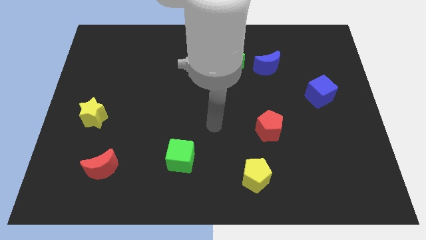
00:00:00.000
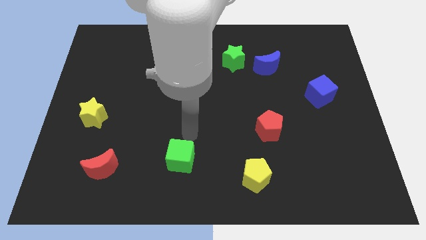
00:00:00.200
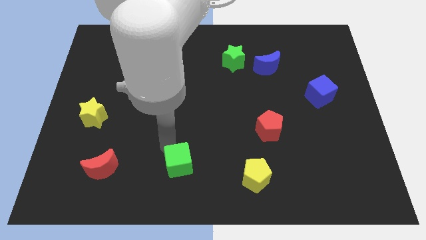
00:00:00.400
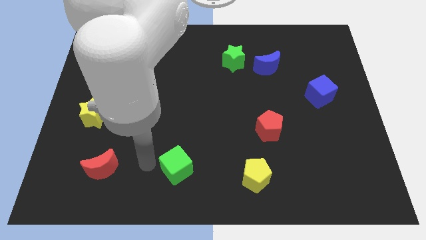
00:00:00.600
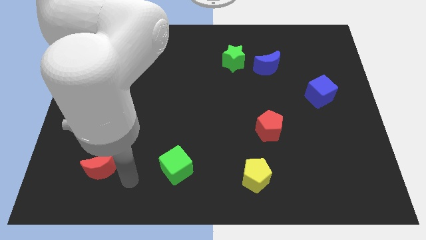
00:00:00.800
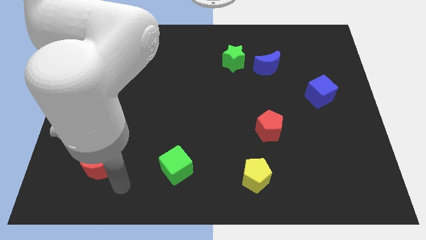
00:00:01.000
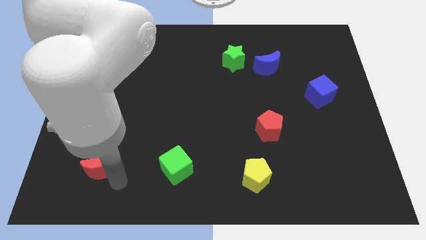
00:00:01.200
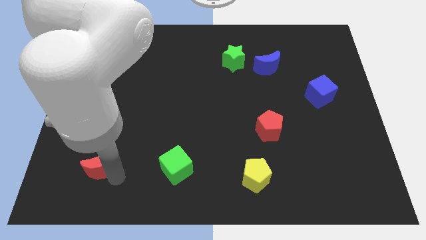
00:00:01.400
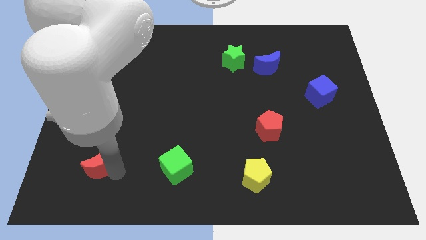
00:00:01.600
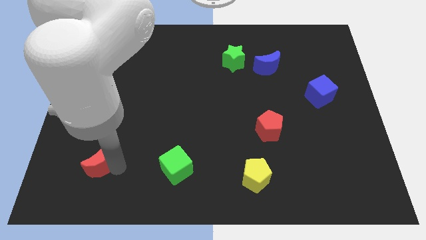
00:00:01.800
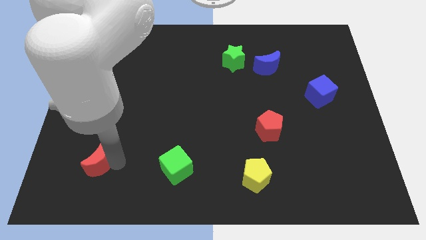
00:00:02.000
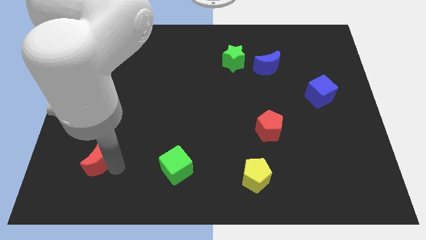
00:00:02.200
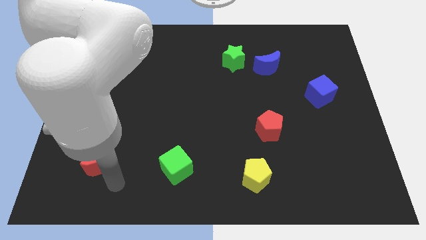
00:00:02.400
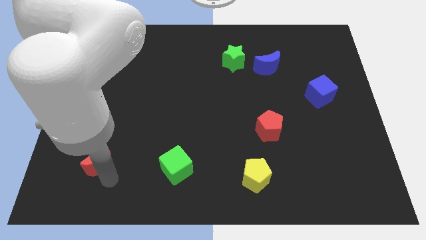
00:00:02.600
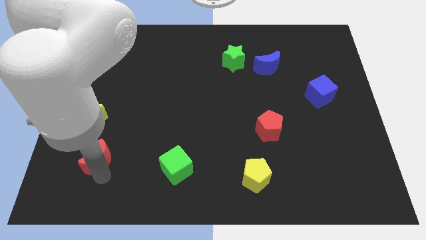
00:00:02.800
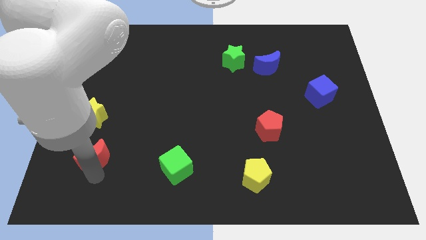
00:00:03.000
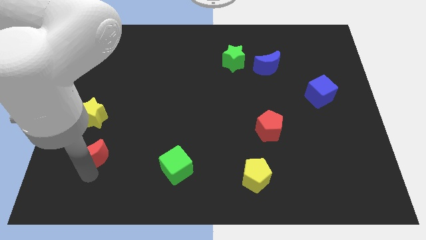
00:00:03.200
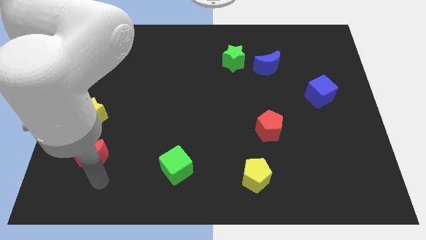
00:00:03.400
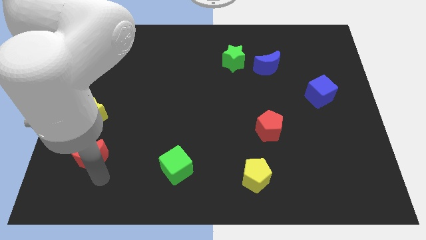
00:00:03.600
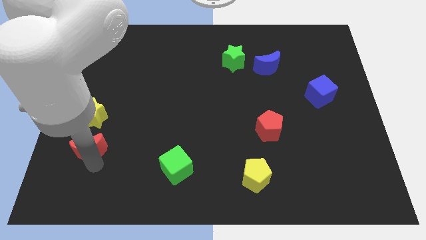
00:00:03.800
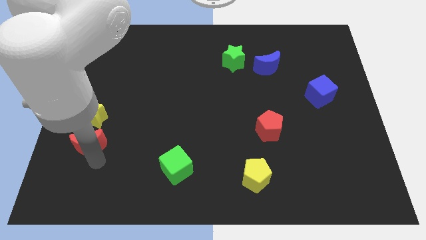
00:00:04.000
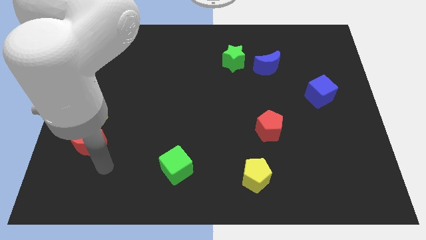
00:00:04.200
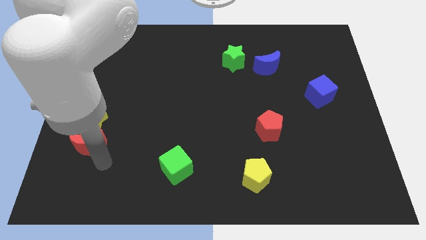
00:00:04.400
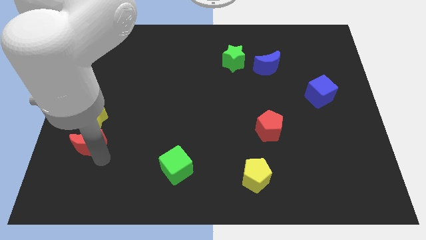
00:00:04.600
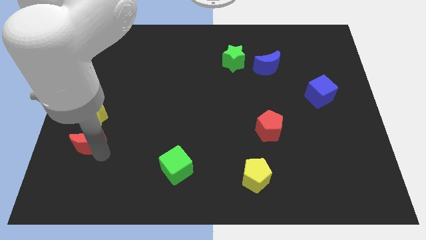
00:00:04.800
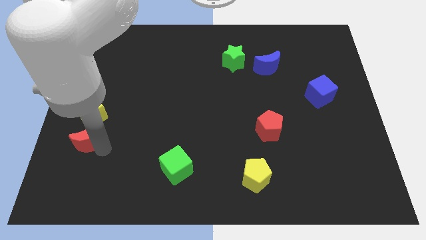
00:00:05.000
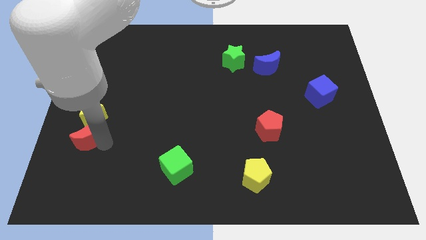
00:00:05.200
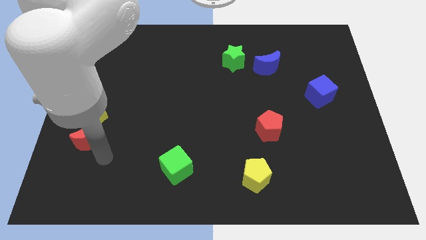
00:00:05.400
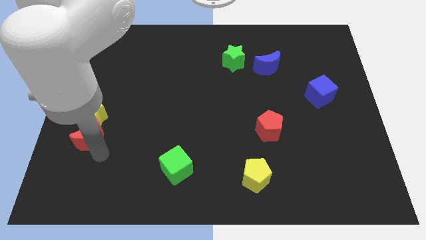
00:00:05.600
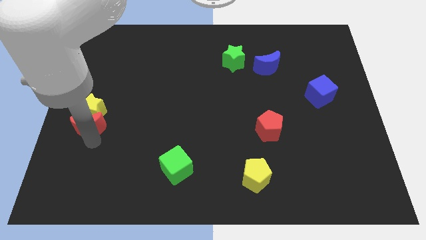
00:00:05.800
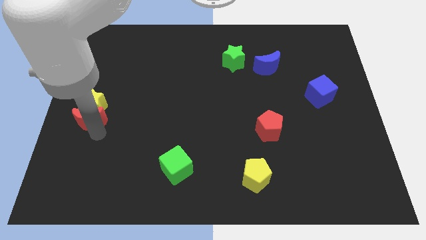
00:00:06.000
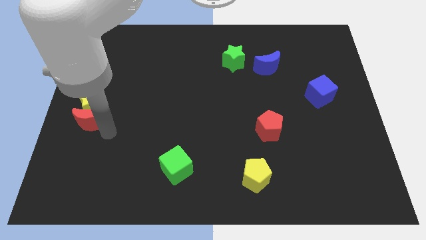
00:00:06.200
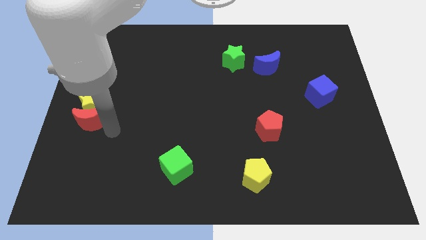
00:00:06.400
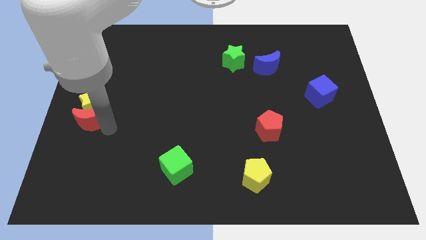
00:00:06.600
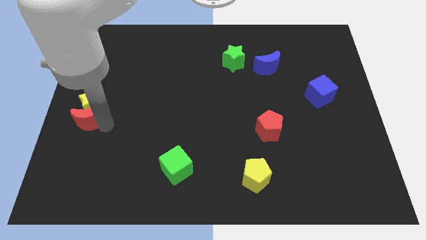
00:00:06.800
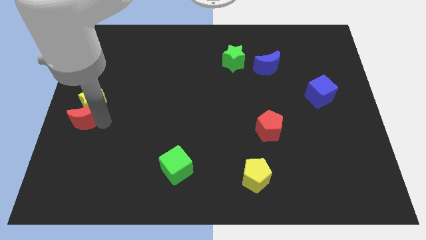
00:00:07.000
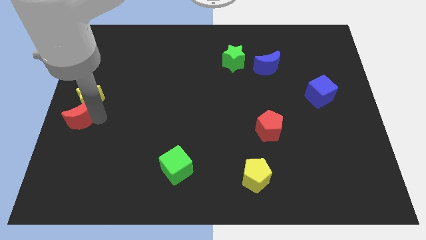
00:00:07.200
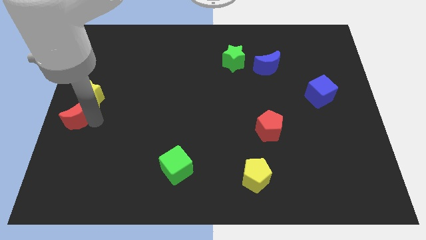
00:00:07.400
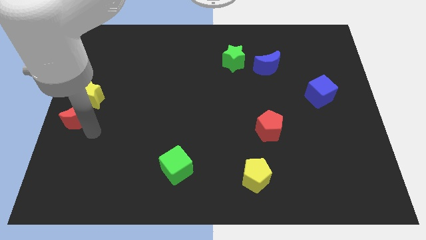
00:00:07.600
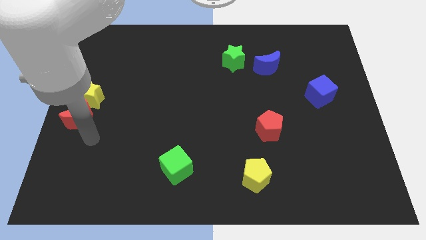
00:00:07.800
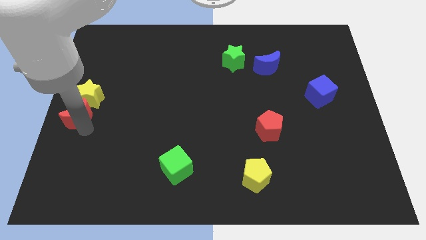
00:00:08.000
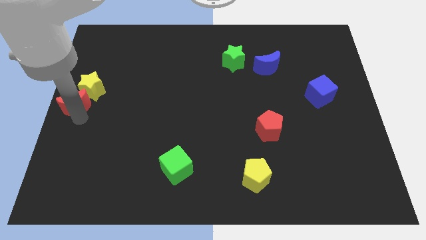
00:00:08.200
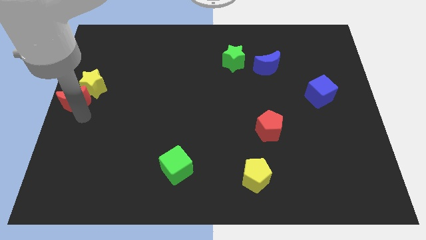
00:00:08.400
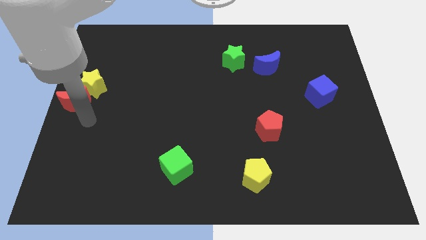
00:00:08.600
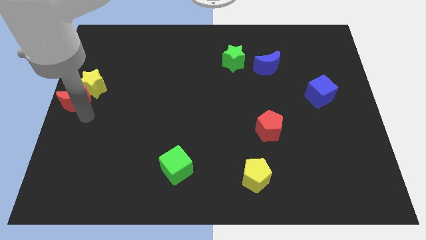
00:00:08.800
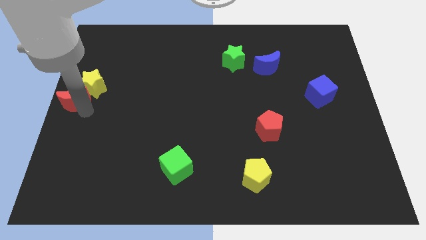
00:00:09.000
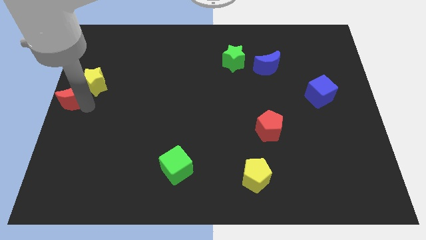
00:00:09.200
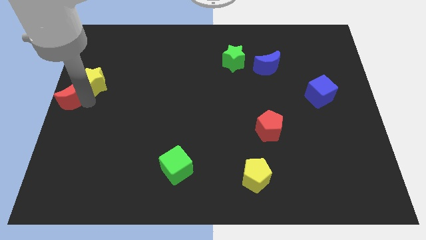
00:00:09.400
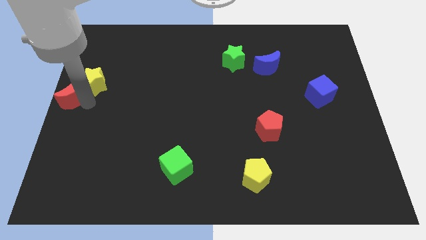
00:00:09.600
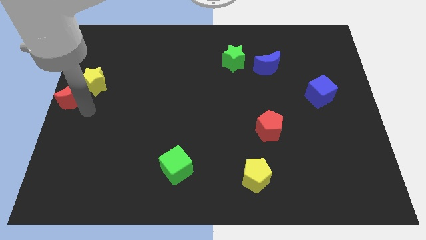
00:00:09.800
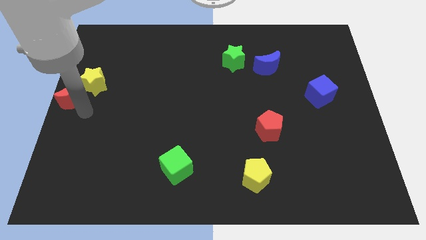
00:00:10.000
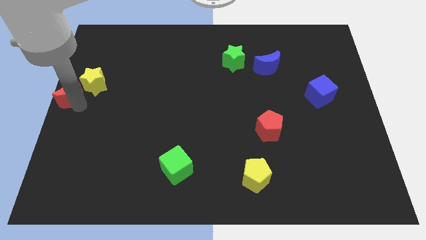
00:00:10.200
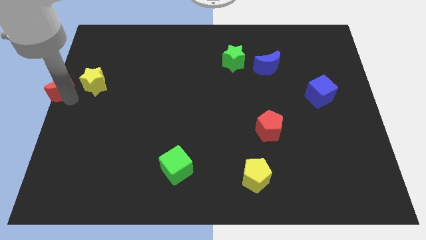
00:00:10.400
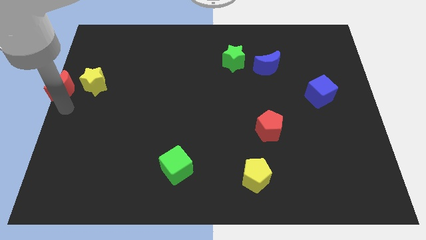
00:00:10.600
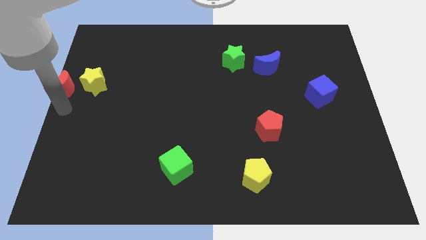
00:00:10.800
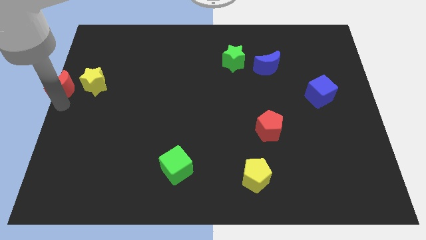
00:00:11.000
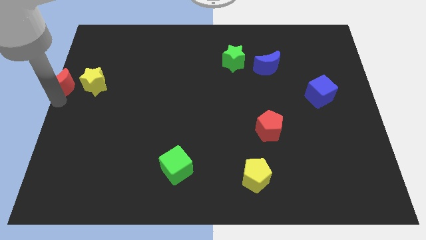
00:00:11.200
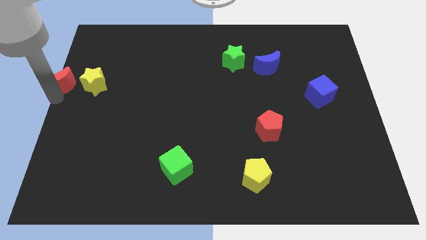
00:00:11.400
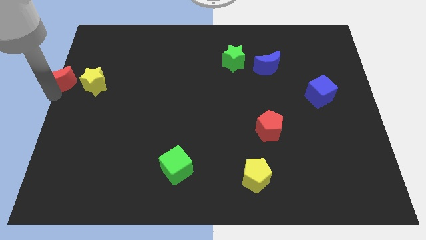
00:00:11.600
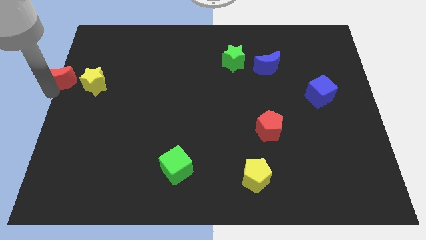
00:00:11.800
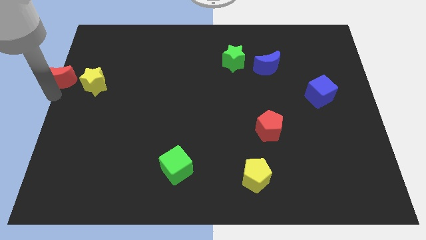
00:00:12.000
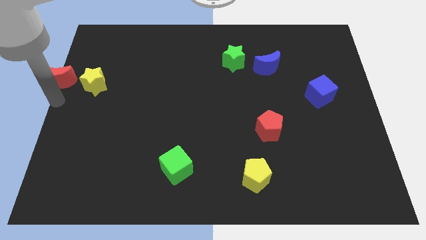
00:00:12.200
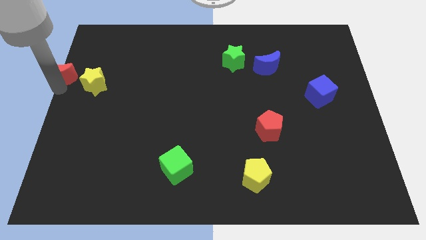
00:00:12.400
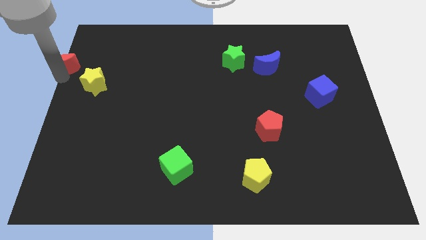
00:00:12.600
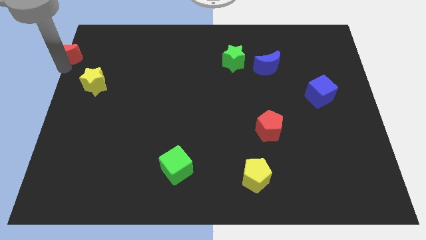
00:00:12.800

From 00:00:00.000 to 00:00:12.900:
push the red moon to the top left of the board

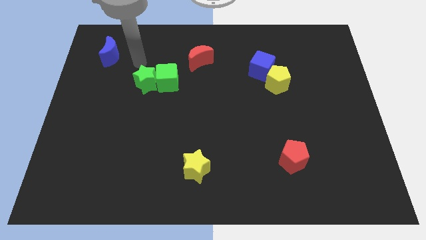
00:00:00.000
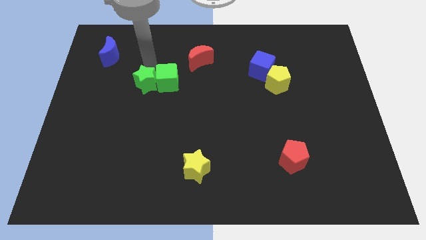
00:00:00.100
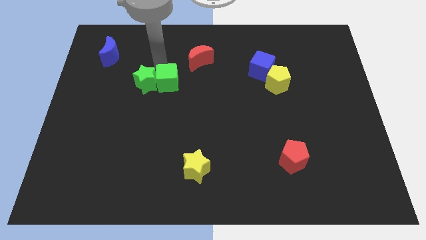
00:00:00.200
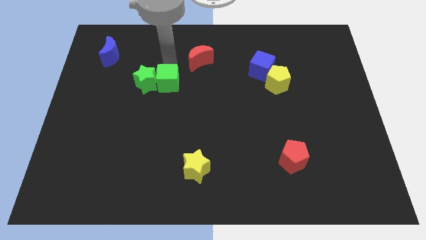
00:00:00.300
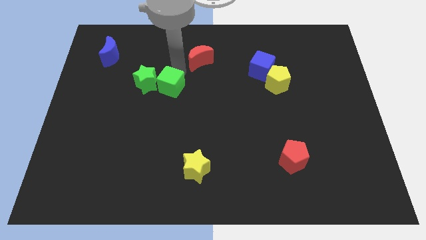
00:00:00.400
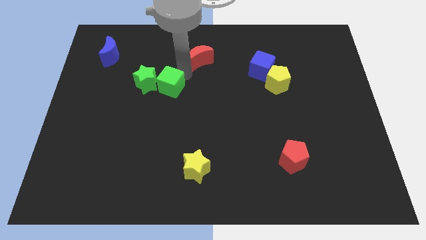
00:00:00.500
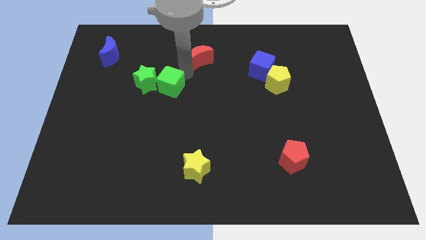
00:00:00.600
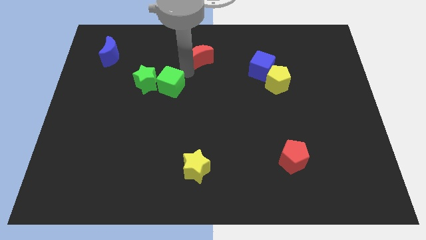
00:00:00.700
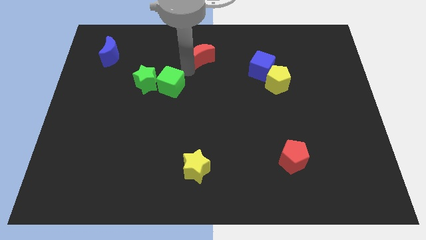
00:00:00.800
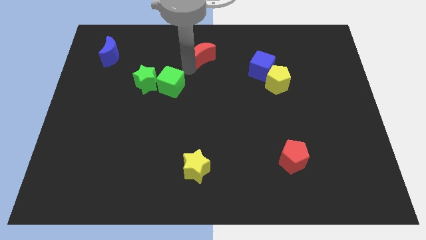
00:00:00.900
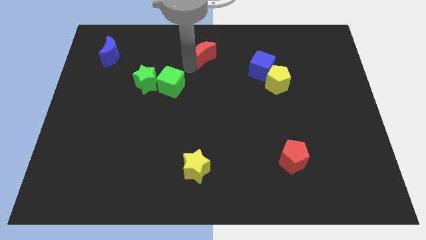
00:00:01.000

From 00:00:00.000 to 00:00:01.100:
push the red moon to the top
